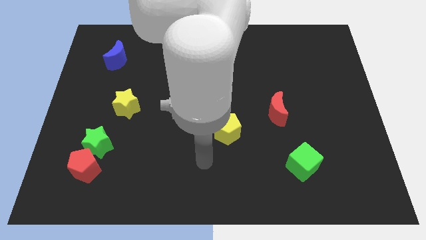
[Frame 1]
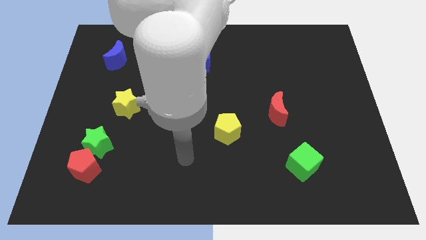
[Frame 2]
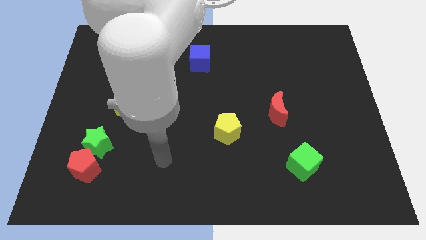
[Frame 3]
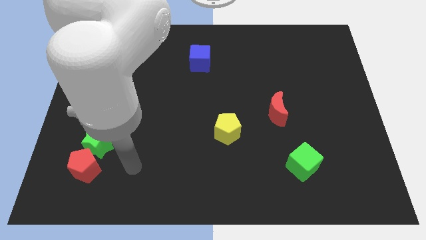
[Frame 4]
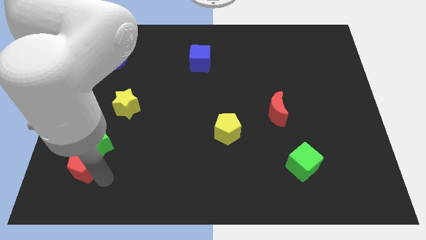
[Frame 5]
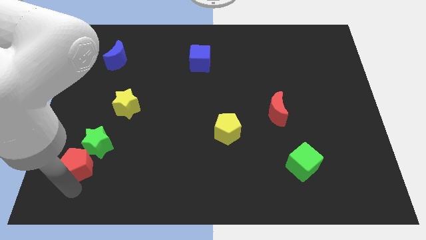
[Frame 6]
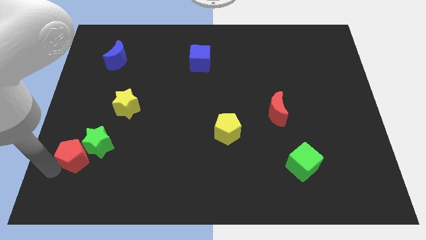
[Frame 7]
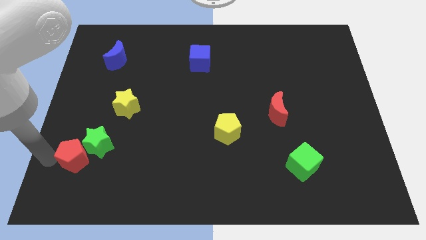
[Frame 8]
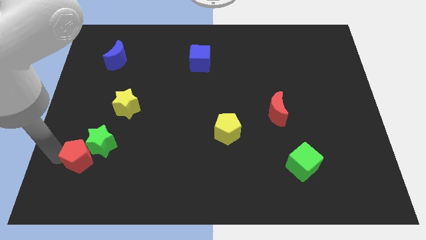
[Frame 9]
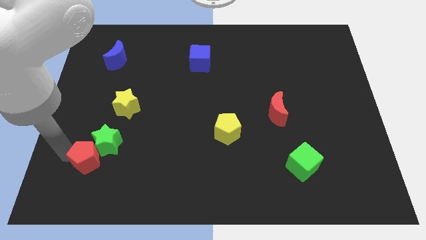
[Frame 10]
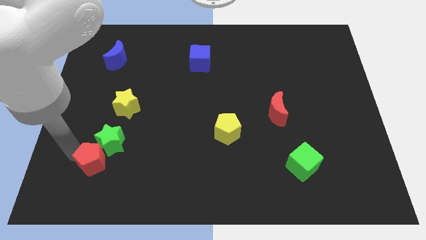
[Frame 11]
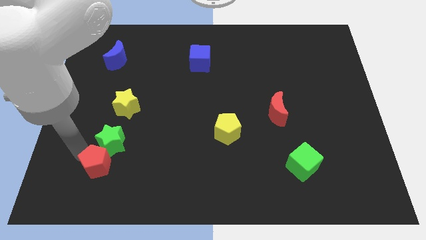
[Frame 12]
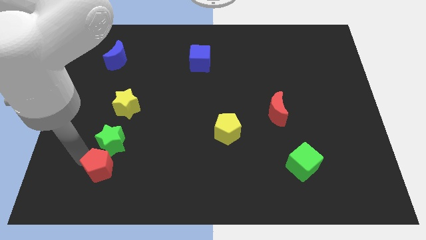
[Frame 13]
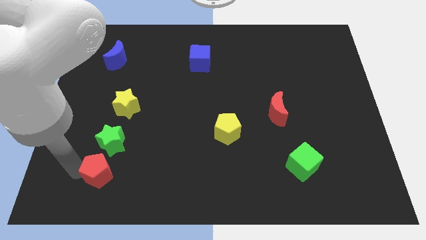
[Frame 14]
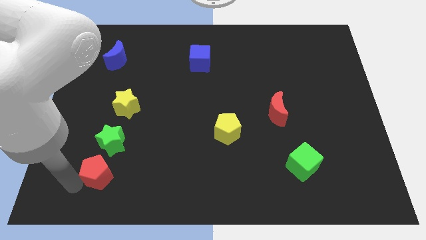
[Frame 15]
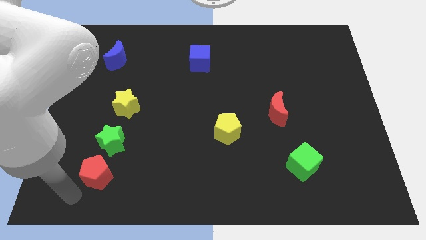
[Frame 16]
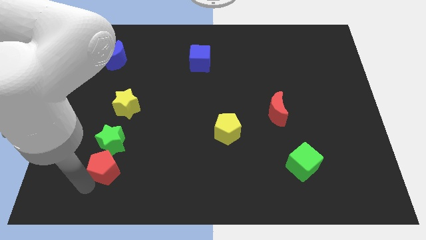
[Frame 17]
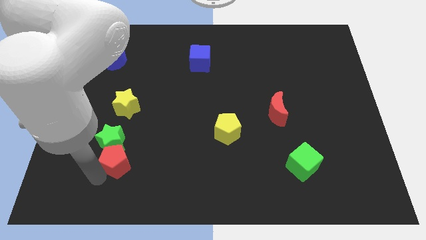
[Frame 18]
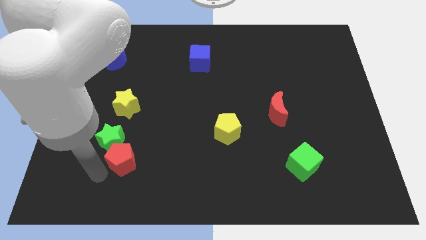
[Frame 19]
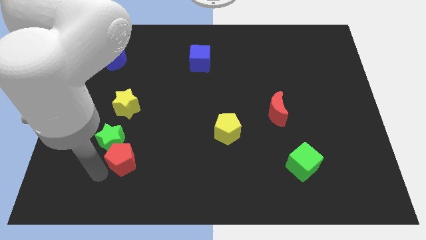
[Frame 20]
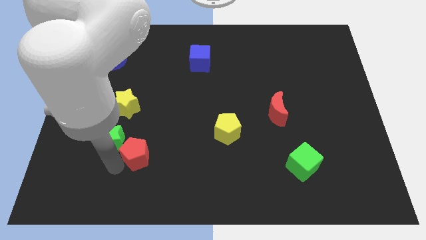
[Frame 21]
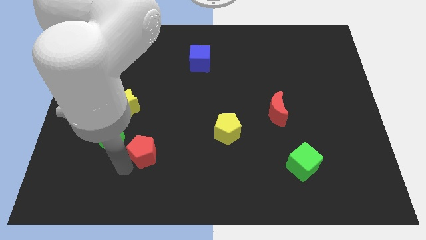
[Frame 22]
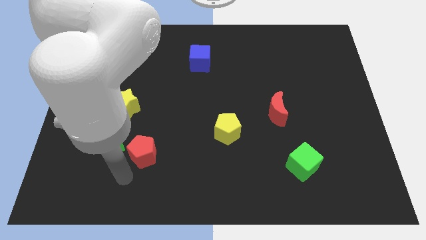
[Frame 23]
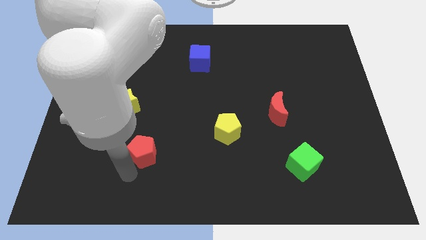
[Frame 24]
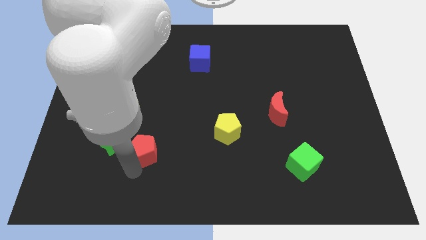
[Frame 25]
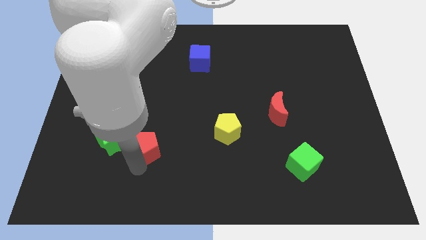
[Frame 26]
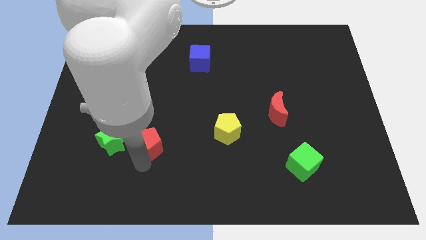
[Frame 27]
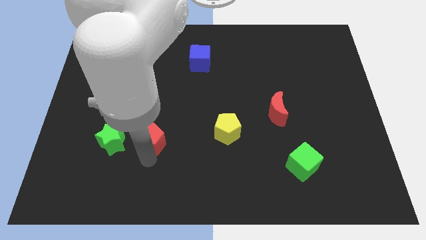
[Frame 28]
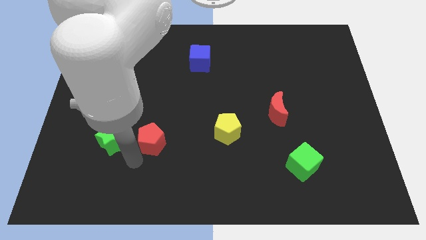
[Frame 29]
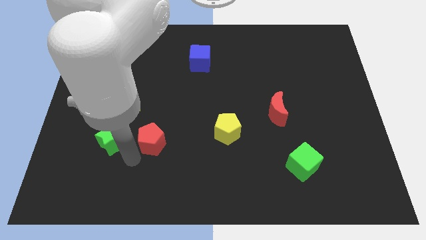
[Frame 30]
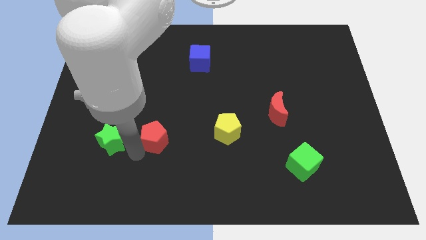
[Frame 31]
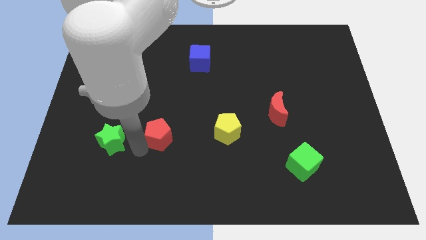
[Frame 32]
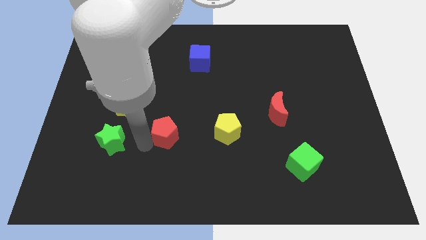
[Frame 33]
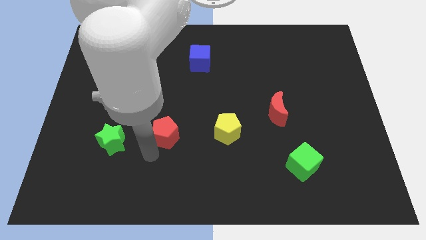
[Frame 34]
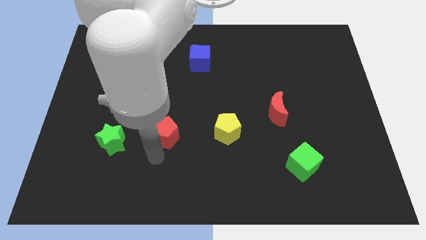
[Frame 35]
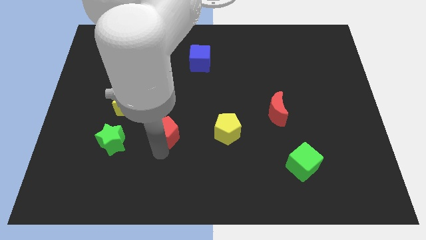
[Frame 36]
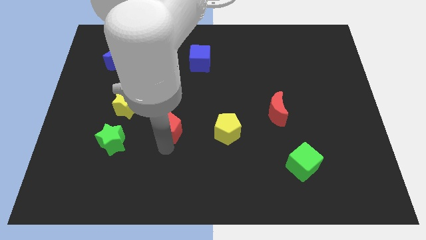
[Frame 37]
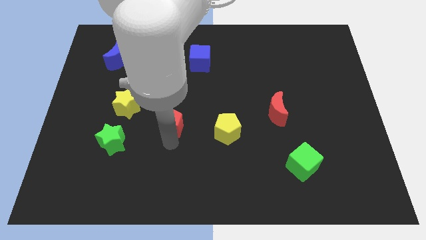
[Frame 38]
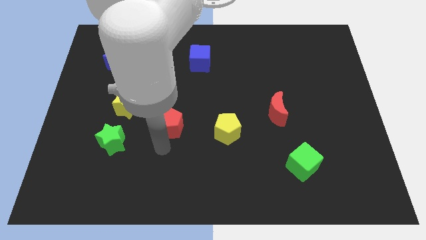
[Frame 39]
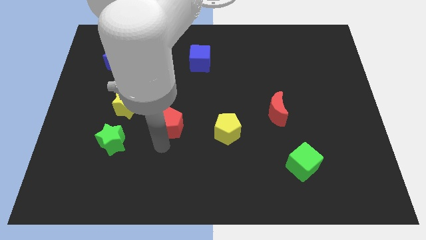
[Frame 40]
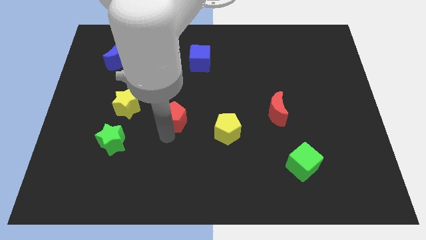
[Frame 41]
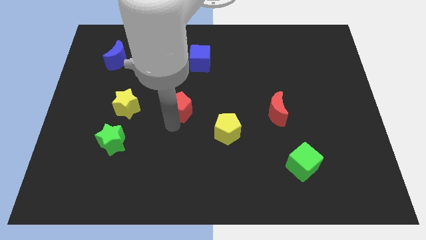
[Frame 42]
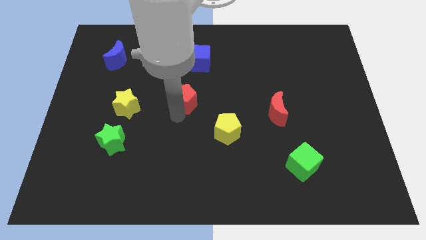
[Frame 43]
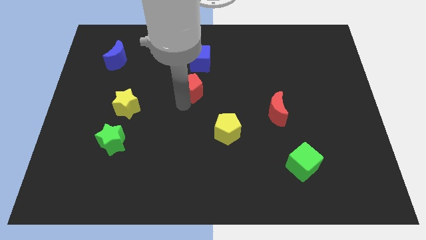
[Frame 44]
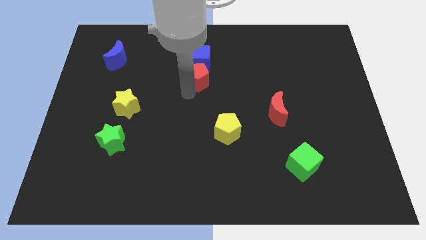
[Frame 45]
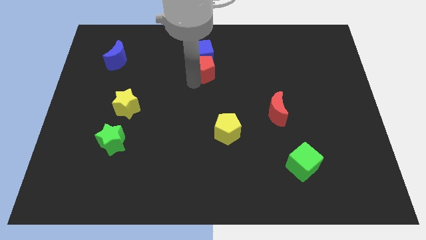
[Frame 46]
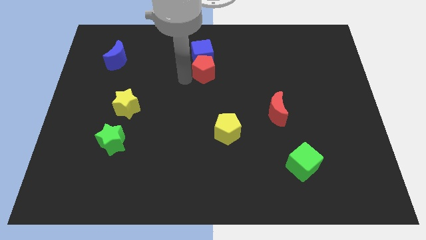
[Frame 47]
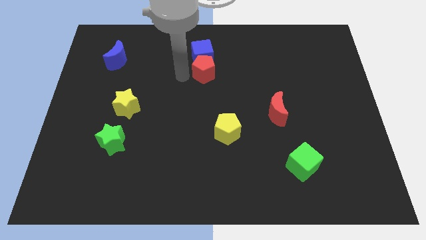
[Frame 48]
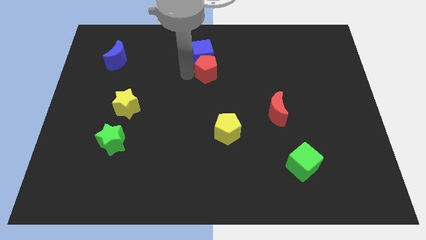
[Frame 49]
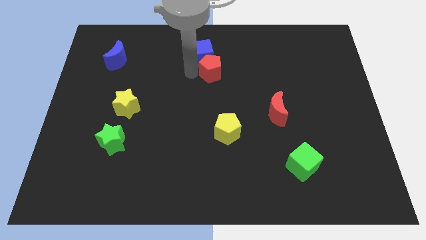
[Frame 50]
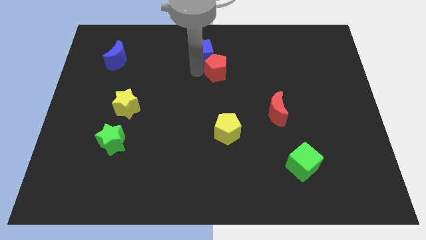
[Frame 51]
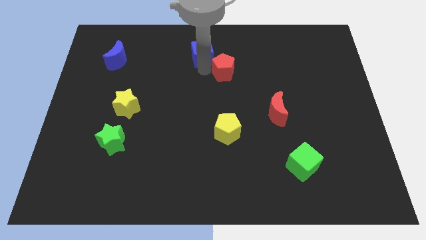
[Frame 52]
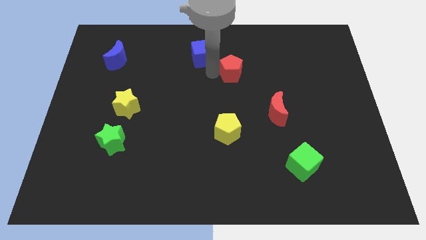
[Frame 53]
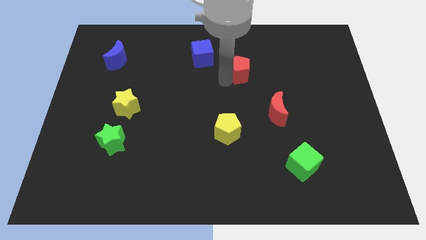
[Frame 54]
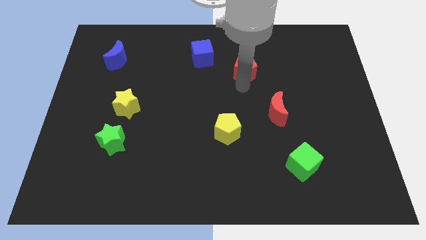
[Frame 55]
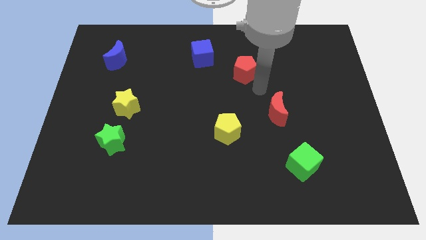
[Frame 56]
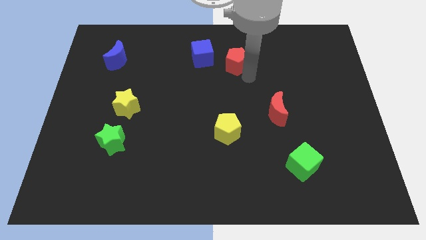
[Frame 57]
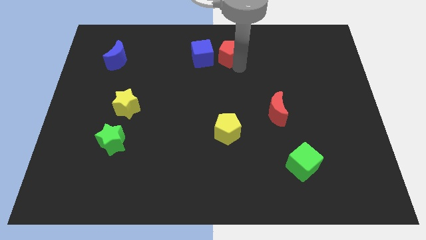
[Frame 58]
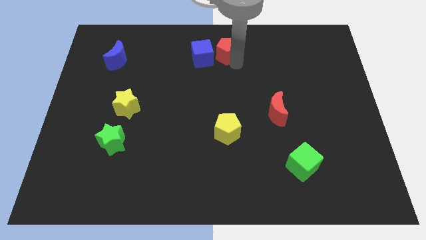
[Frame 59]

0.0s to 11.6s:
put the red pentagon to the top side

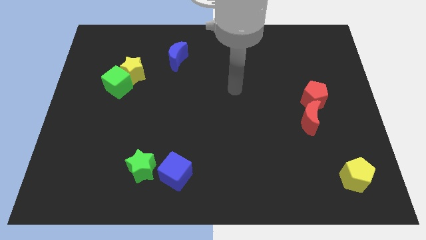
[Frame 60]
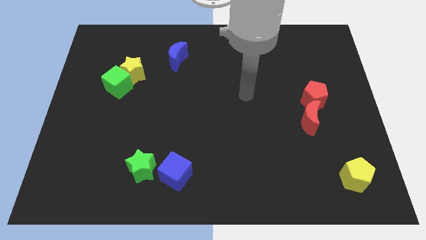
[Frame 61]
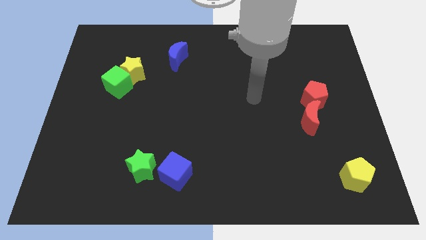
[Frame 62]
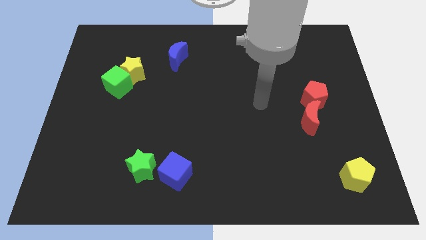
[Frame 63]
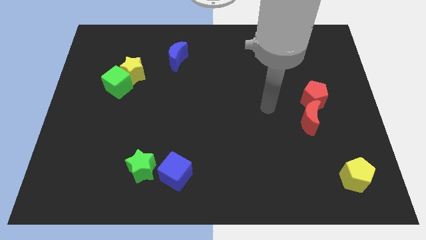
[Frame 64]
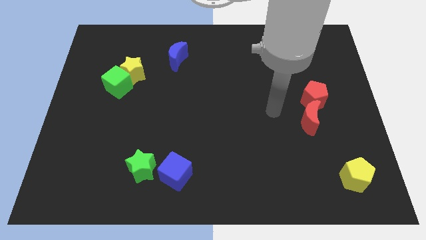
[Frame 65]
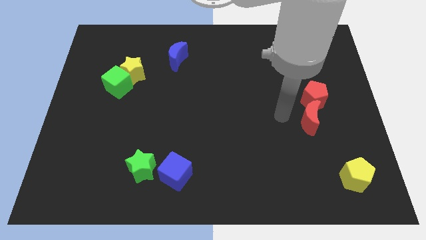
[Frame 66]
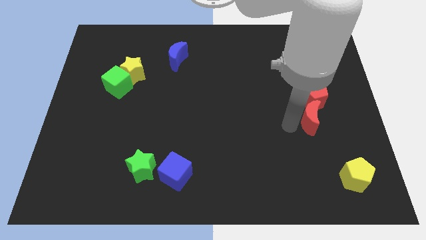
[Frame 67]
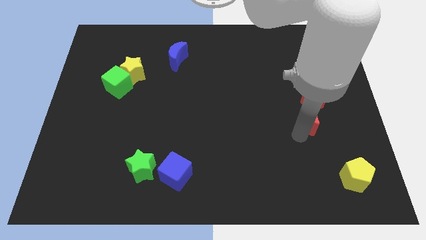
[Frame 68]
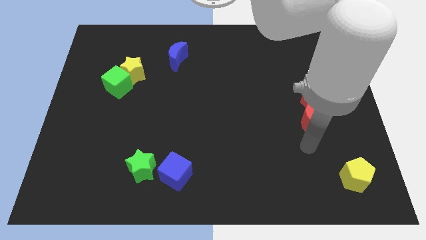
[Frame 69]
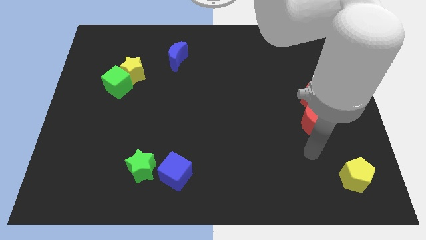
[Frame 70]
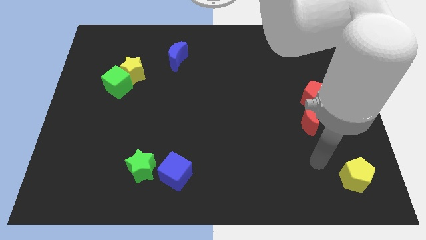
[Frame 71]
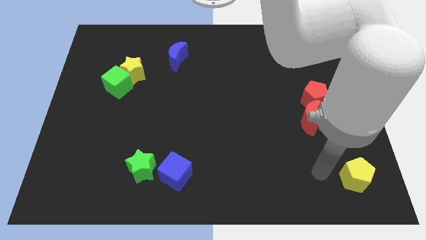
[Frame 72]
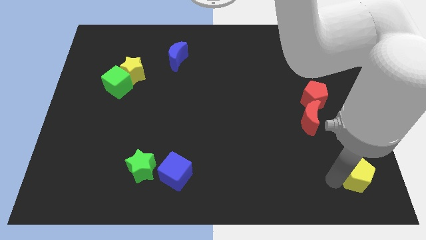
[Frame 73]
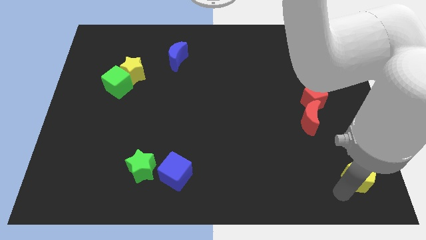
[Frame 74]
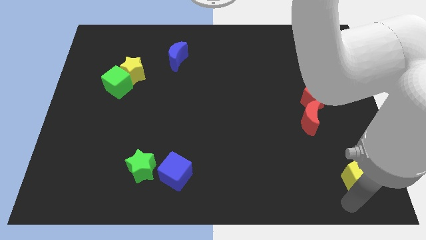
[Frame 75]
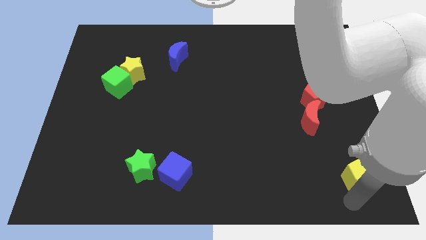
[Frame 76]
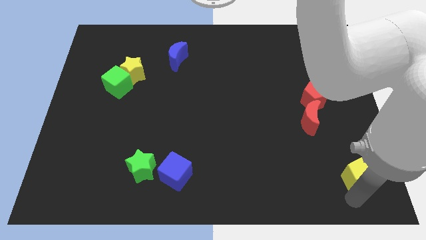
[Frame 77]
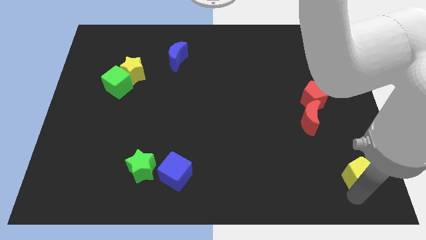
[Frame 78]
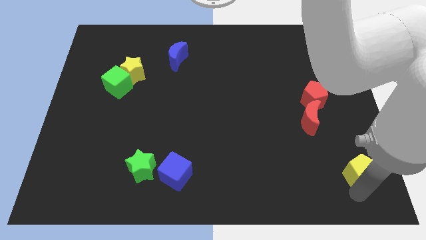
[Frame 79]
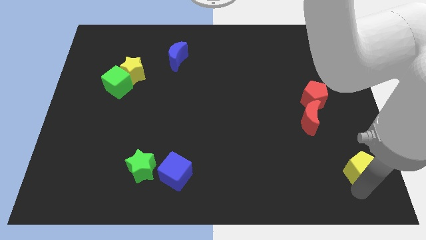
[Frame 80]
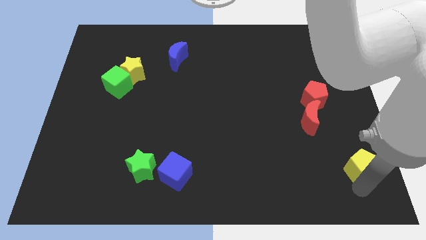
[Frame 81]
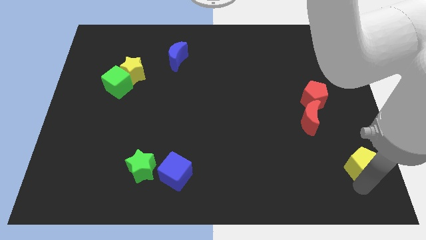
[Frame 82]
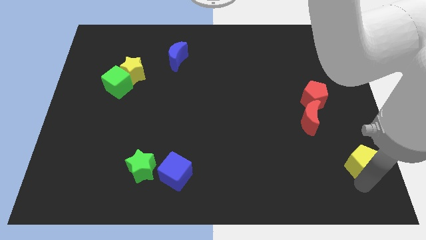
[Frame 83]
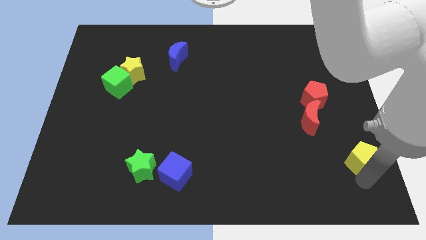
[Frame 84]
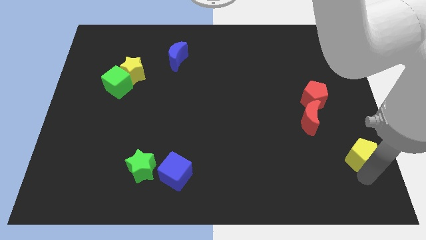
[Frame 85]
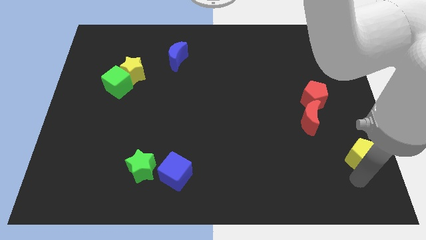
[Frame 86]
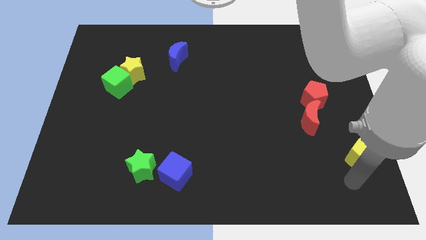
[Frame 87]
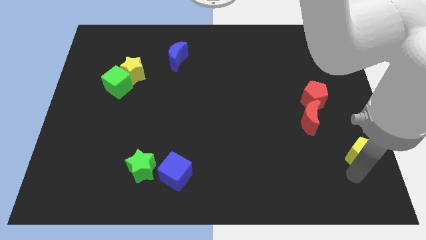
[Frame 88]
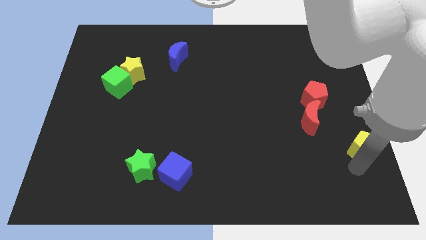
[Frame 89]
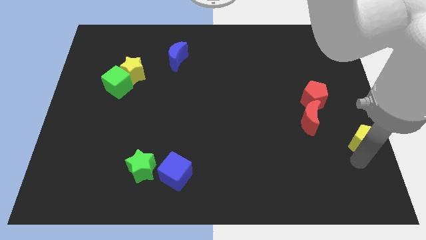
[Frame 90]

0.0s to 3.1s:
slide the yellow pentagon to the right side
